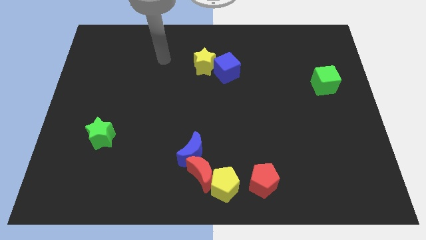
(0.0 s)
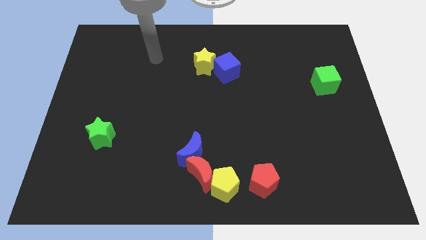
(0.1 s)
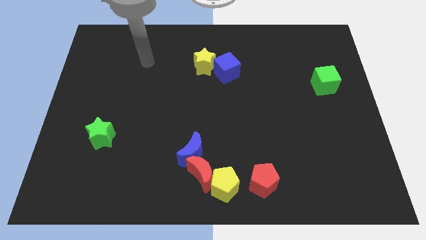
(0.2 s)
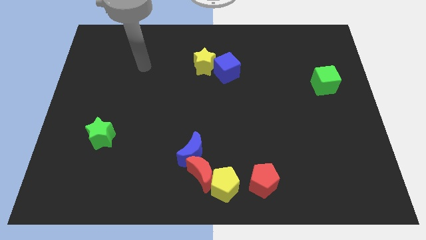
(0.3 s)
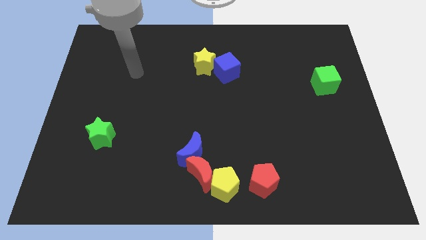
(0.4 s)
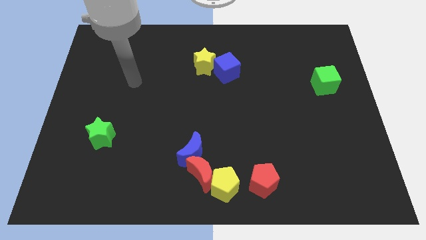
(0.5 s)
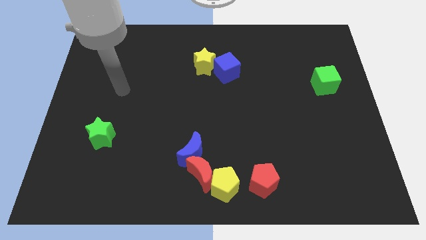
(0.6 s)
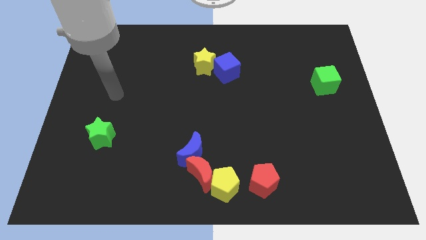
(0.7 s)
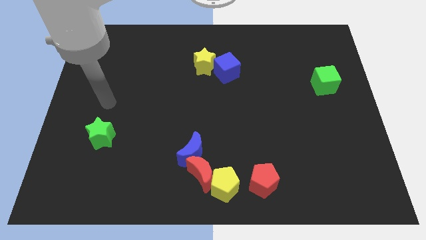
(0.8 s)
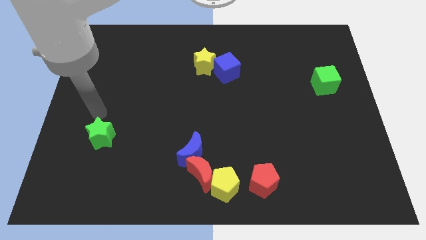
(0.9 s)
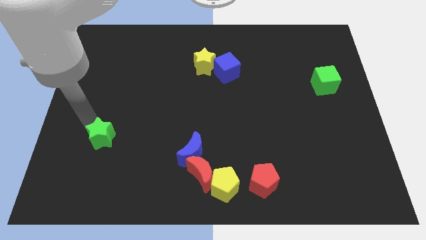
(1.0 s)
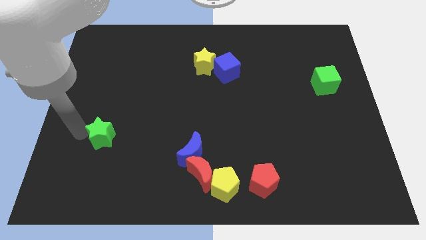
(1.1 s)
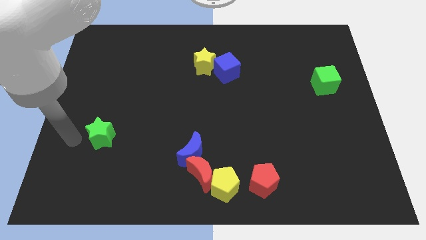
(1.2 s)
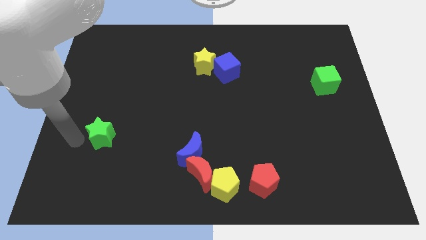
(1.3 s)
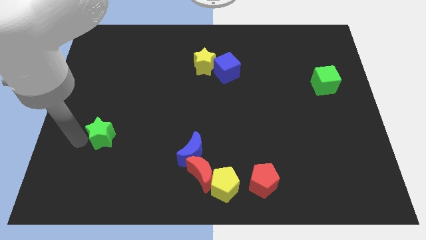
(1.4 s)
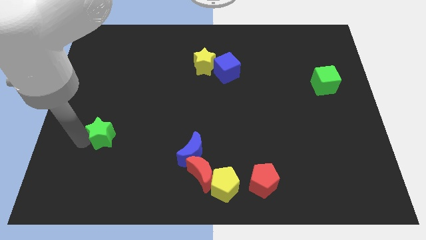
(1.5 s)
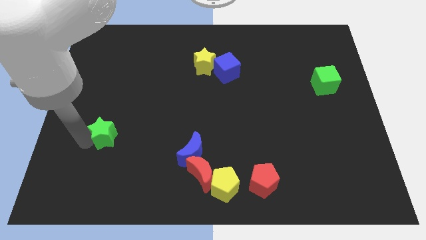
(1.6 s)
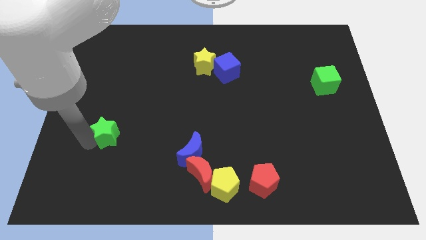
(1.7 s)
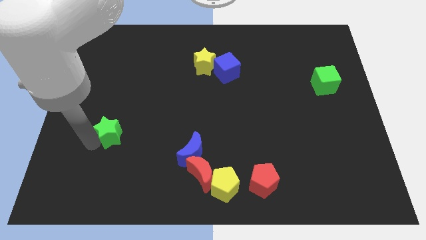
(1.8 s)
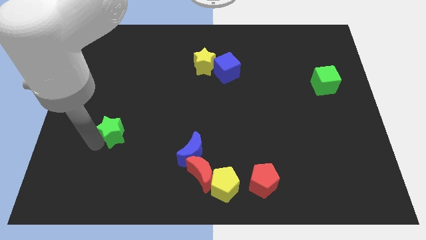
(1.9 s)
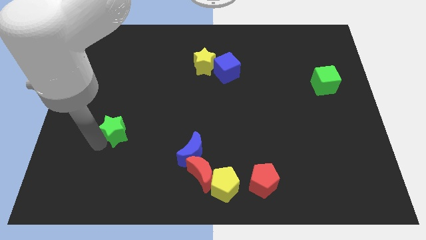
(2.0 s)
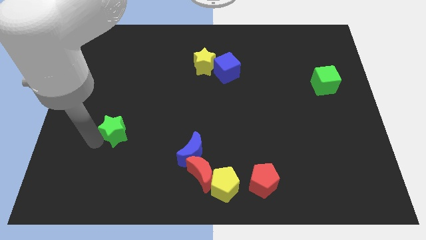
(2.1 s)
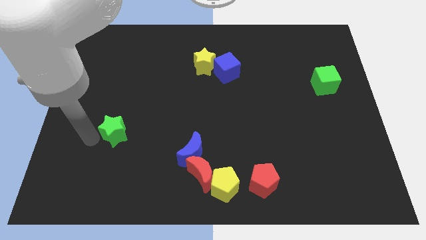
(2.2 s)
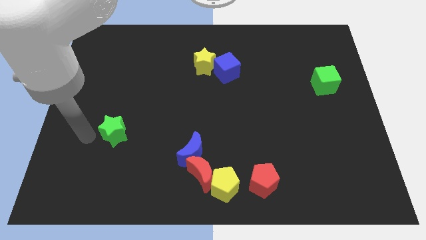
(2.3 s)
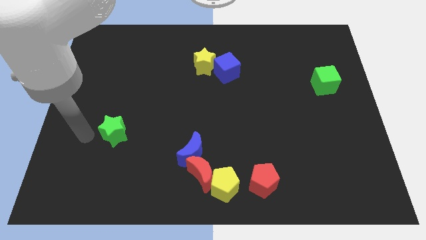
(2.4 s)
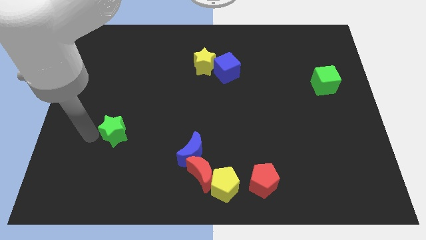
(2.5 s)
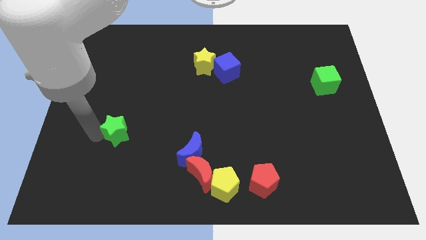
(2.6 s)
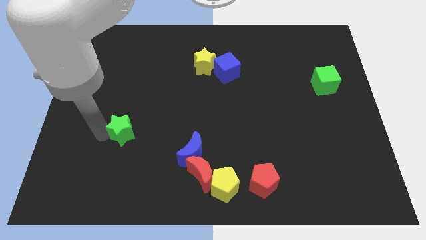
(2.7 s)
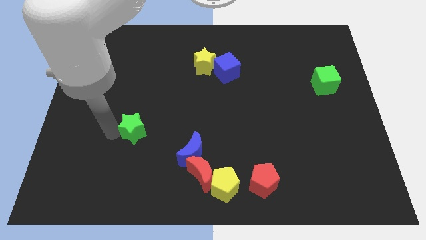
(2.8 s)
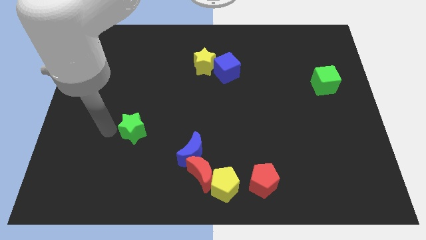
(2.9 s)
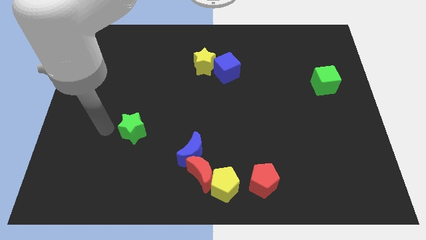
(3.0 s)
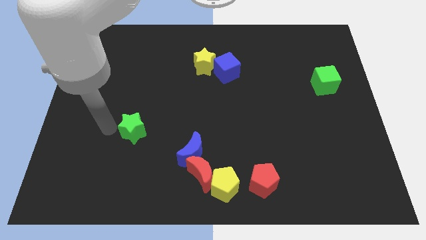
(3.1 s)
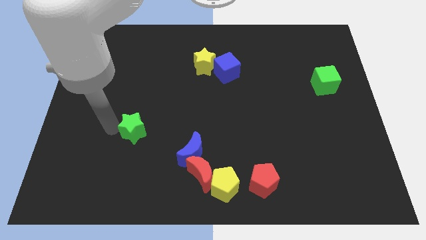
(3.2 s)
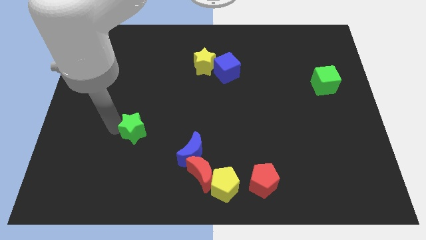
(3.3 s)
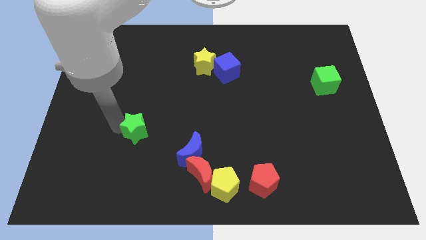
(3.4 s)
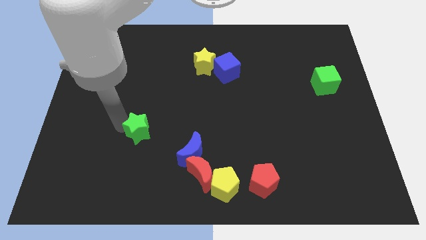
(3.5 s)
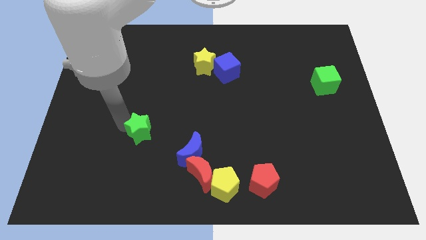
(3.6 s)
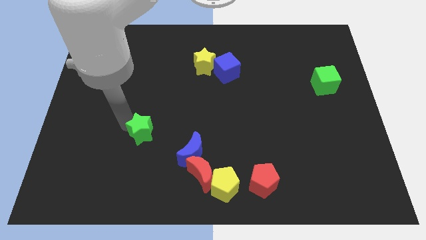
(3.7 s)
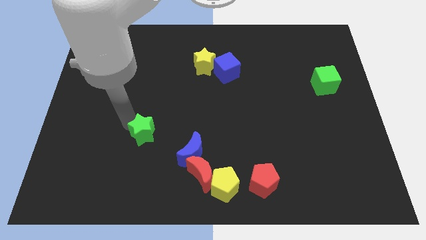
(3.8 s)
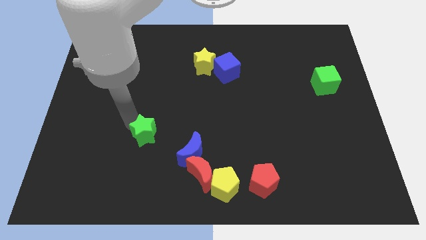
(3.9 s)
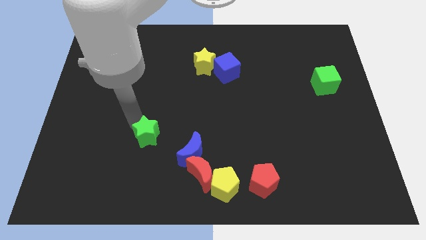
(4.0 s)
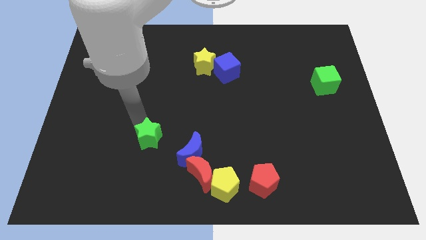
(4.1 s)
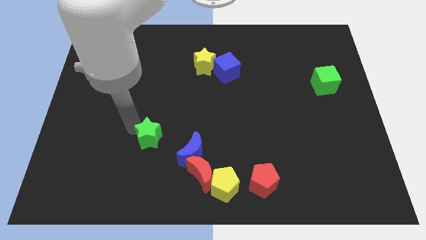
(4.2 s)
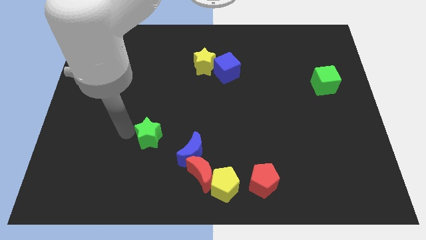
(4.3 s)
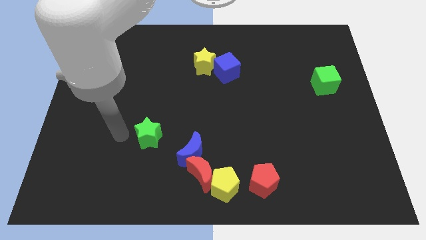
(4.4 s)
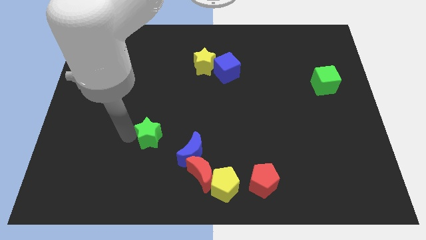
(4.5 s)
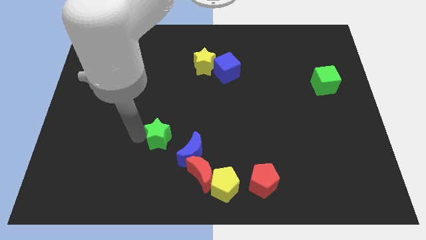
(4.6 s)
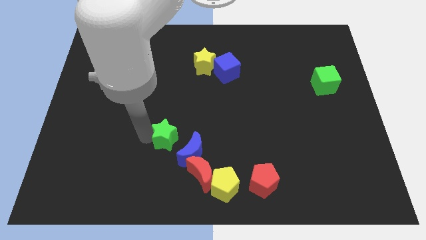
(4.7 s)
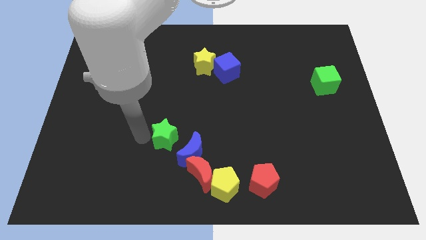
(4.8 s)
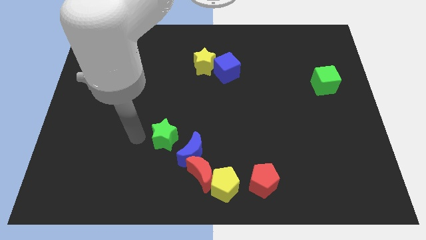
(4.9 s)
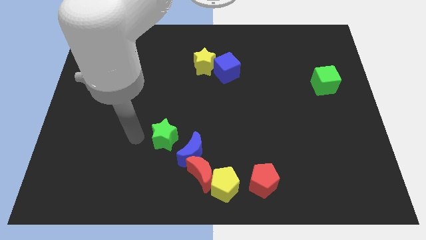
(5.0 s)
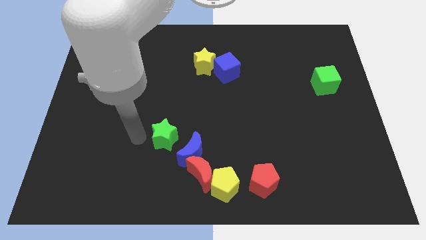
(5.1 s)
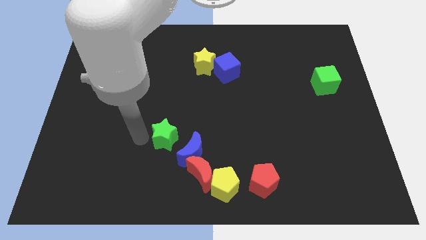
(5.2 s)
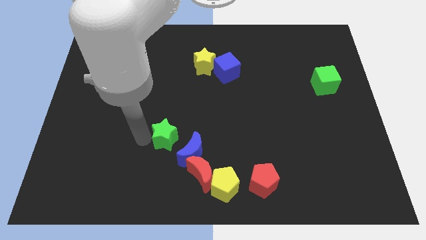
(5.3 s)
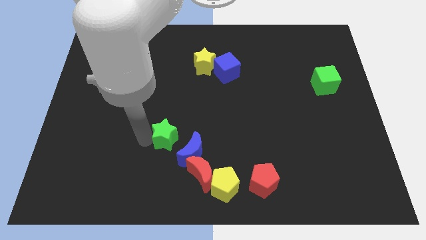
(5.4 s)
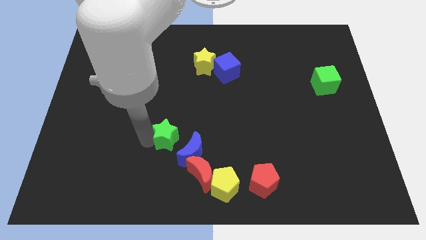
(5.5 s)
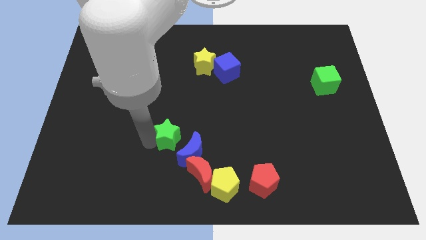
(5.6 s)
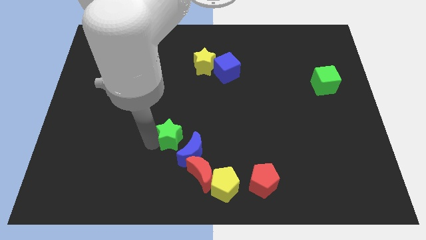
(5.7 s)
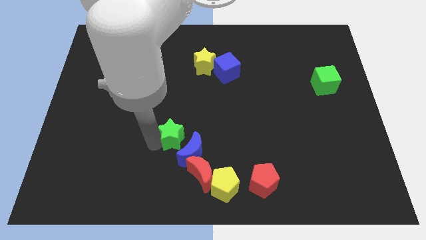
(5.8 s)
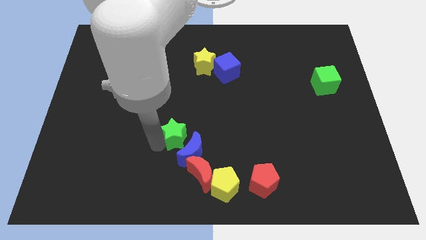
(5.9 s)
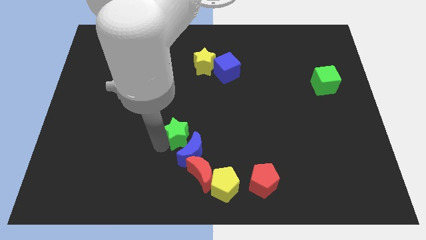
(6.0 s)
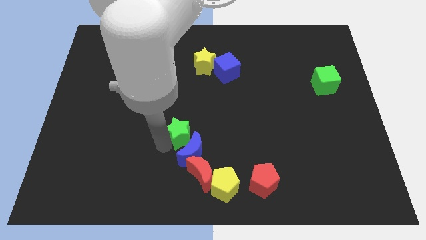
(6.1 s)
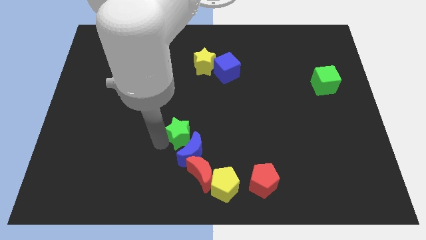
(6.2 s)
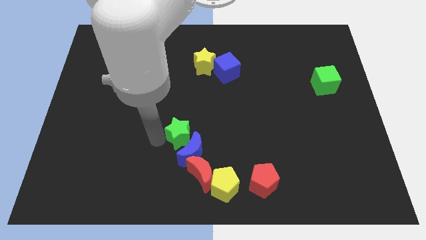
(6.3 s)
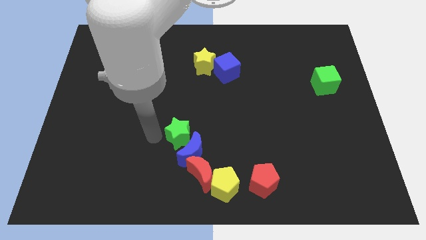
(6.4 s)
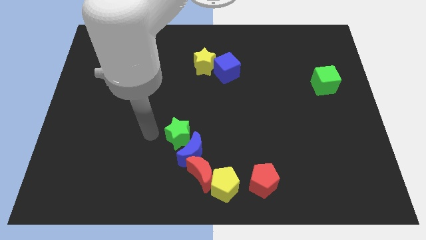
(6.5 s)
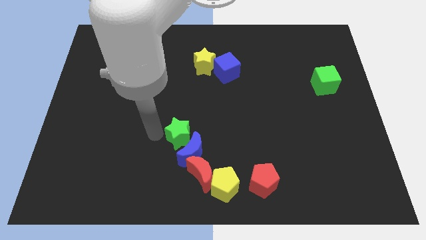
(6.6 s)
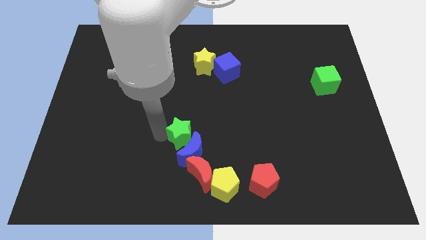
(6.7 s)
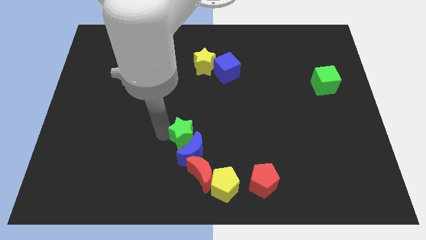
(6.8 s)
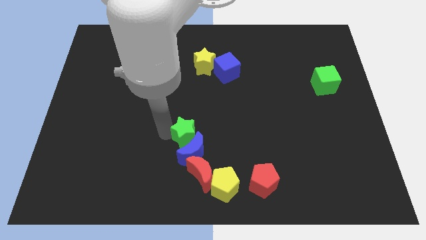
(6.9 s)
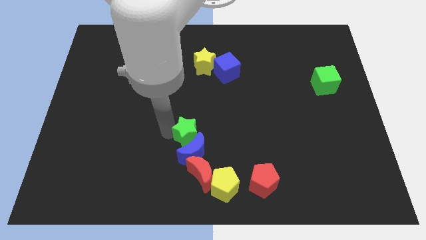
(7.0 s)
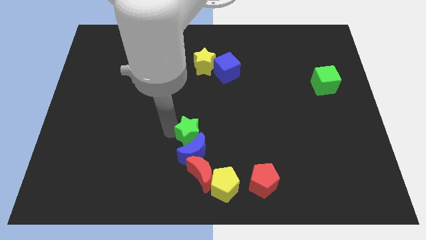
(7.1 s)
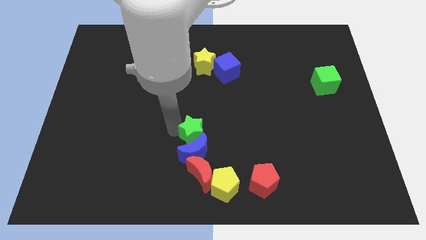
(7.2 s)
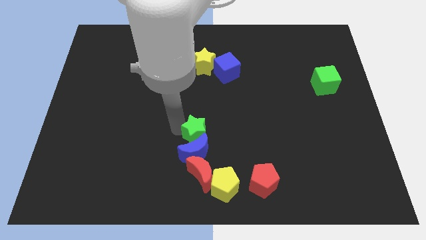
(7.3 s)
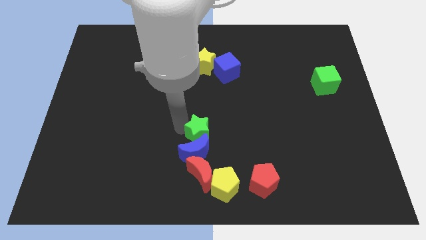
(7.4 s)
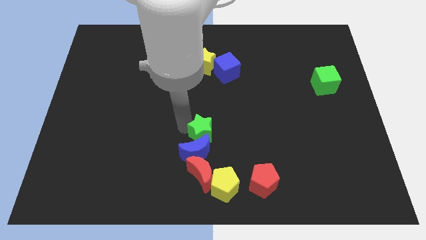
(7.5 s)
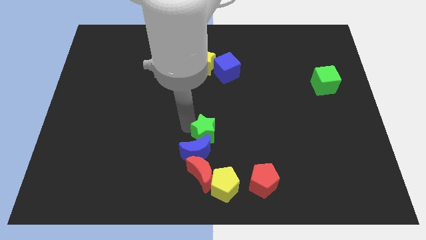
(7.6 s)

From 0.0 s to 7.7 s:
move the green star to the top of the yellow pentagon
